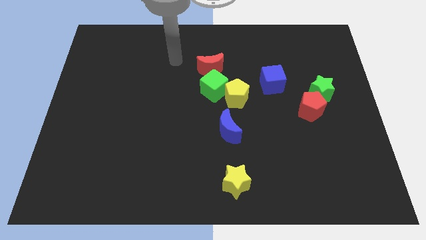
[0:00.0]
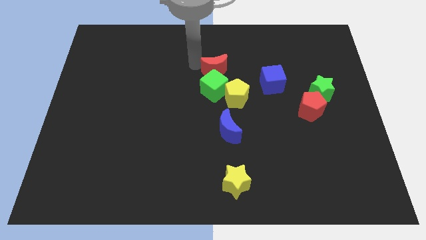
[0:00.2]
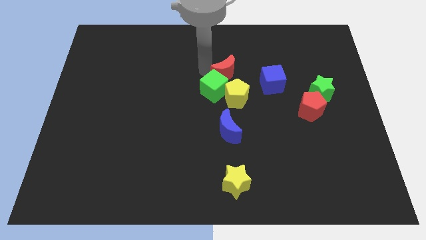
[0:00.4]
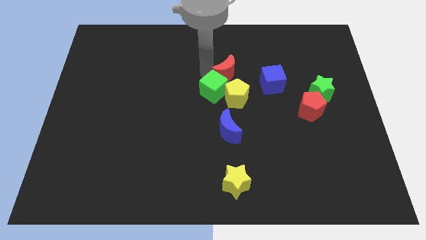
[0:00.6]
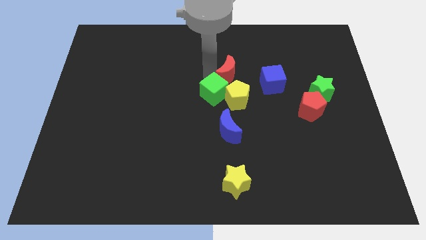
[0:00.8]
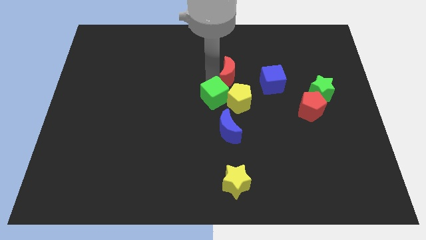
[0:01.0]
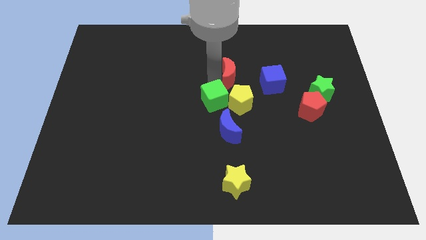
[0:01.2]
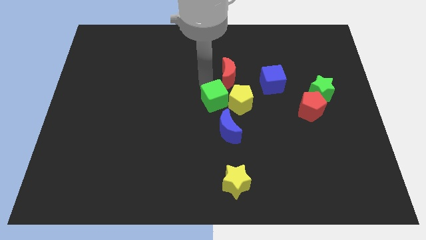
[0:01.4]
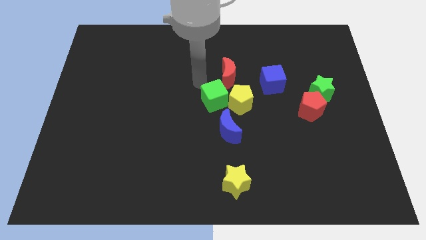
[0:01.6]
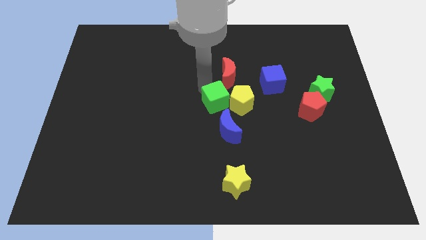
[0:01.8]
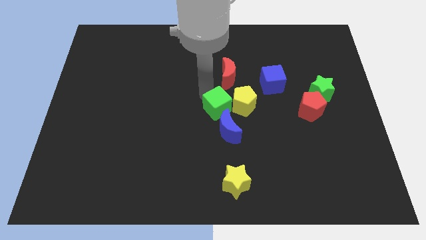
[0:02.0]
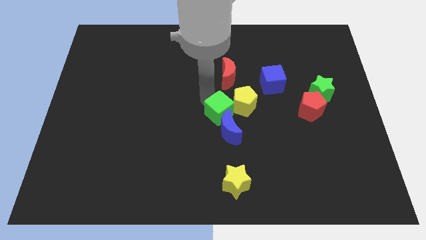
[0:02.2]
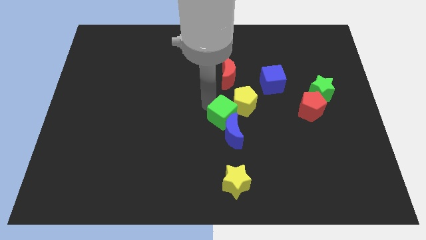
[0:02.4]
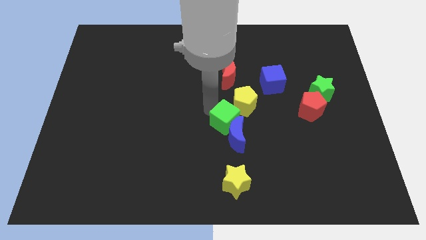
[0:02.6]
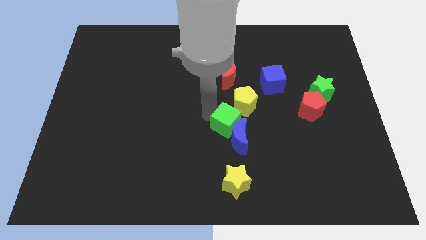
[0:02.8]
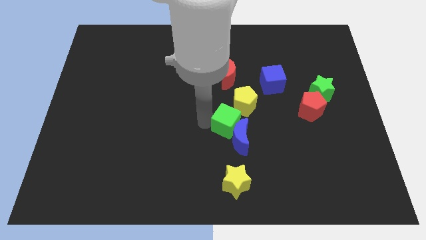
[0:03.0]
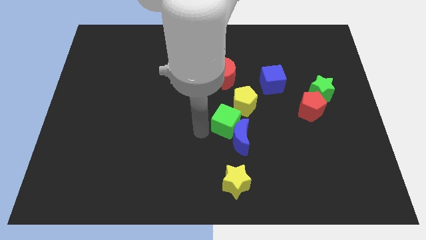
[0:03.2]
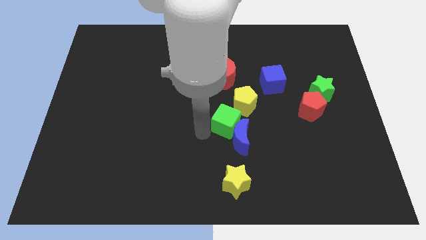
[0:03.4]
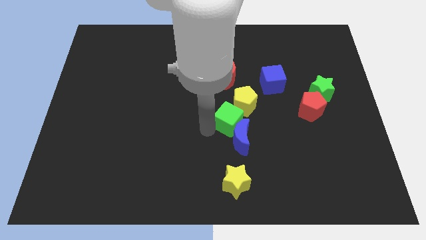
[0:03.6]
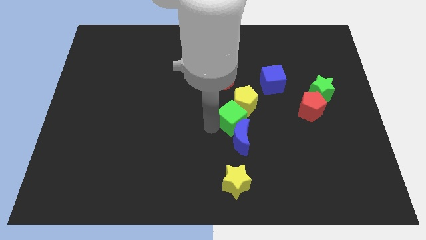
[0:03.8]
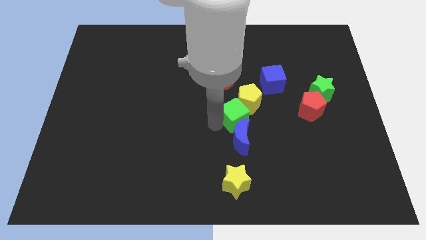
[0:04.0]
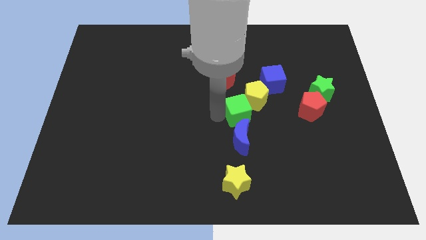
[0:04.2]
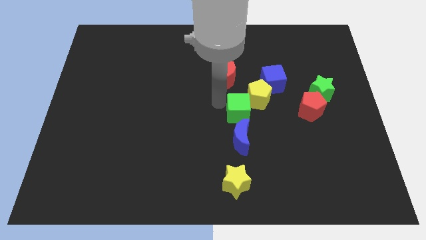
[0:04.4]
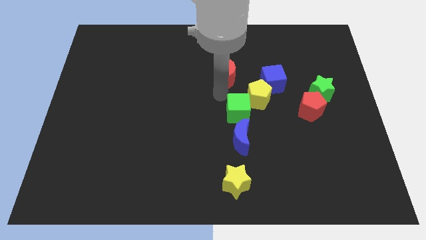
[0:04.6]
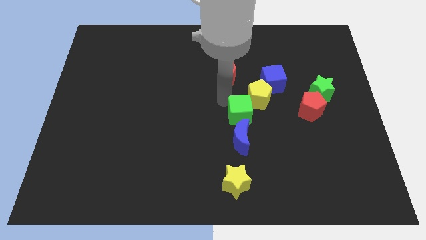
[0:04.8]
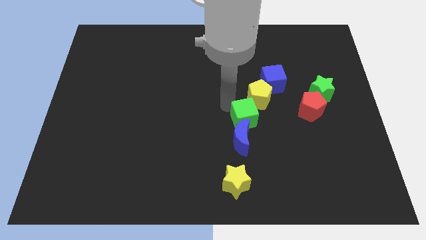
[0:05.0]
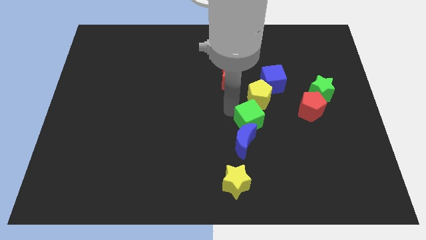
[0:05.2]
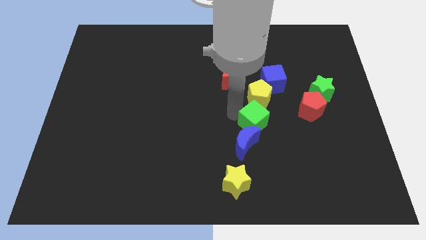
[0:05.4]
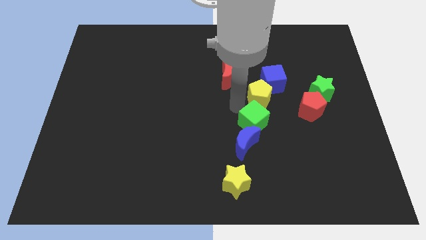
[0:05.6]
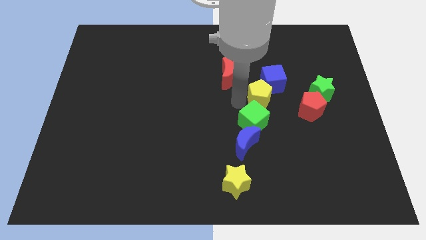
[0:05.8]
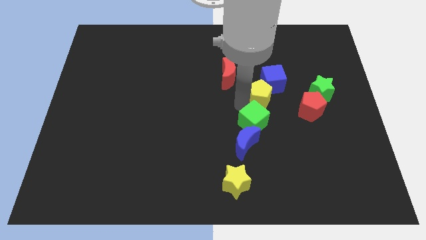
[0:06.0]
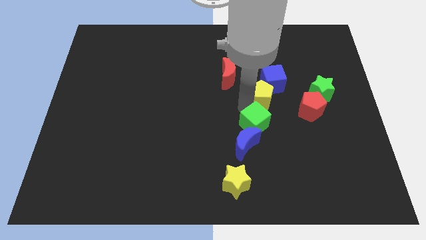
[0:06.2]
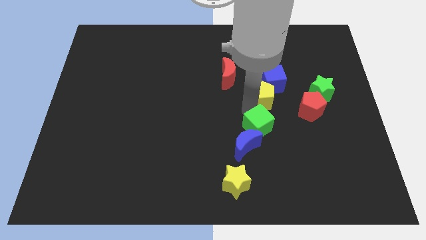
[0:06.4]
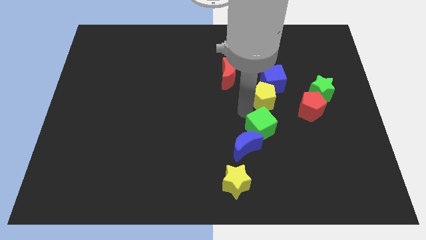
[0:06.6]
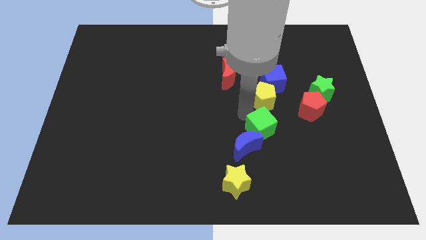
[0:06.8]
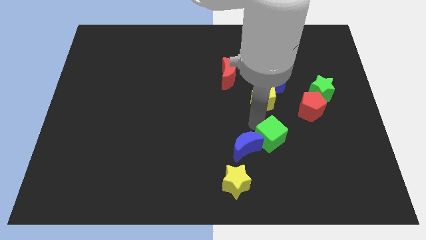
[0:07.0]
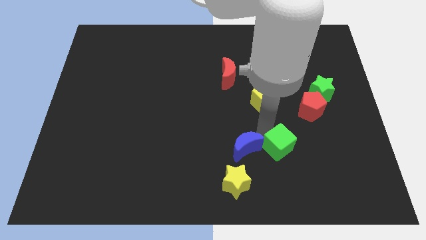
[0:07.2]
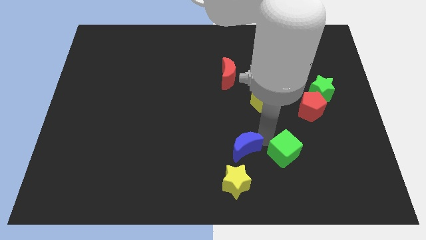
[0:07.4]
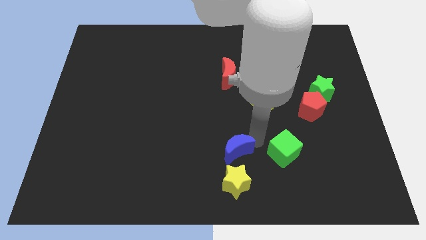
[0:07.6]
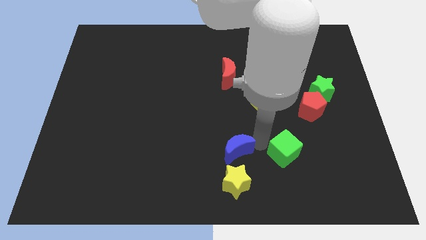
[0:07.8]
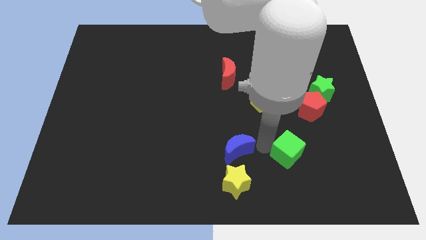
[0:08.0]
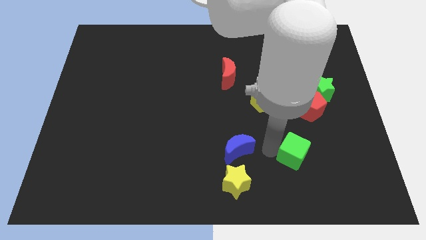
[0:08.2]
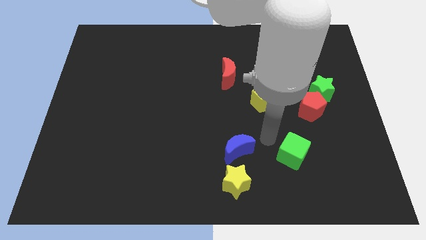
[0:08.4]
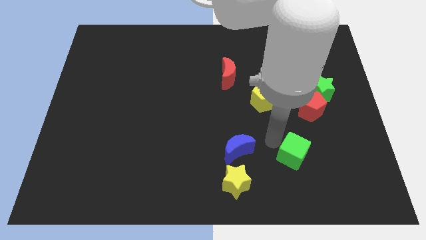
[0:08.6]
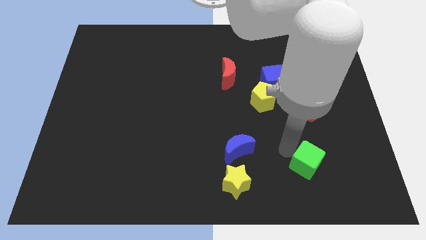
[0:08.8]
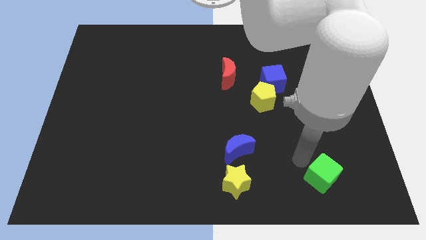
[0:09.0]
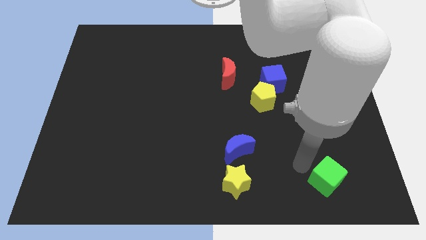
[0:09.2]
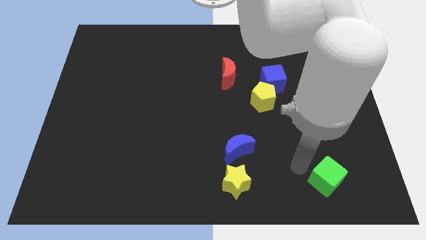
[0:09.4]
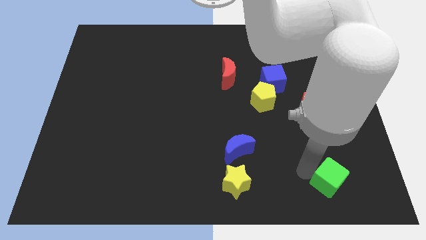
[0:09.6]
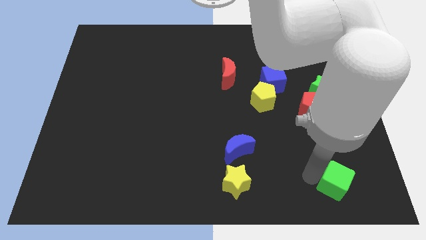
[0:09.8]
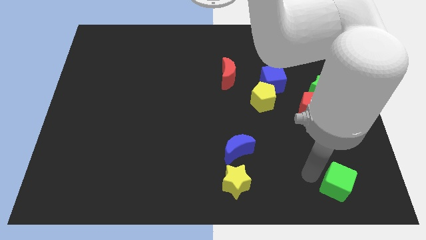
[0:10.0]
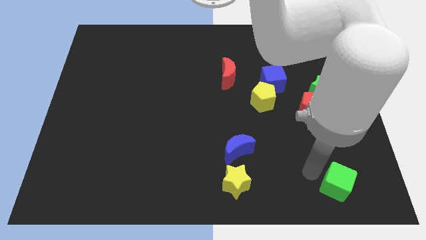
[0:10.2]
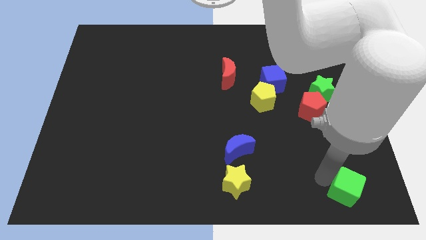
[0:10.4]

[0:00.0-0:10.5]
move the green cube to the bottom right

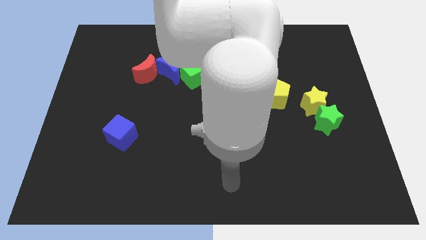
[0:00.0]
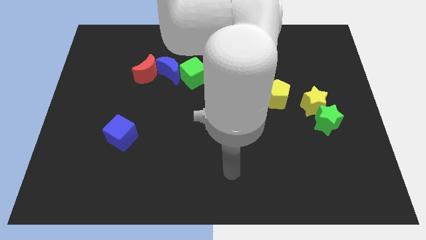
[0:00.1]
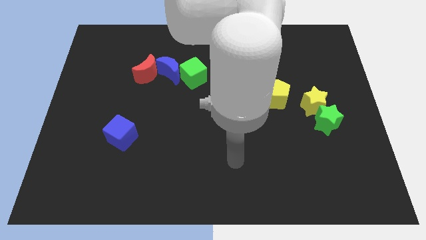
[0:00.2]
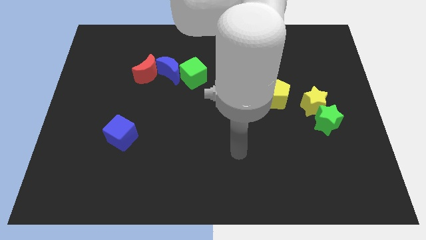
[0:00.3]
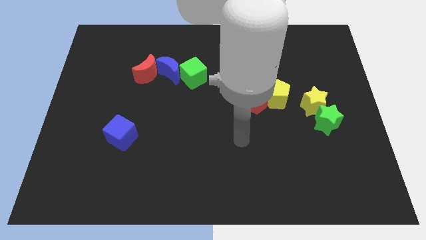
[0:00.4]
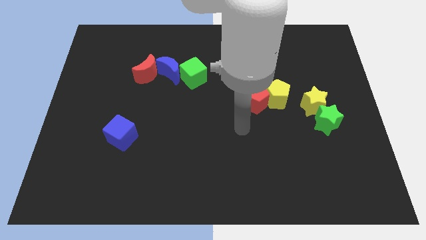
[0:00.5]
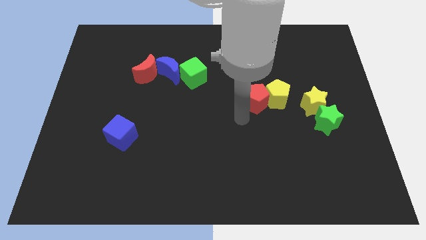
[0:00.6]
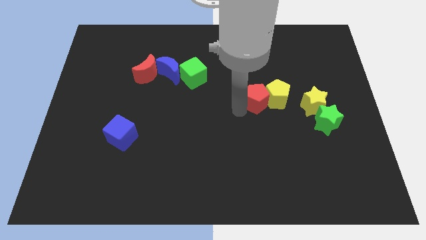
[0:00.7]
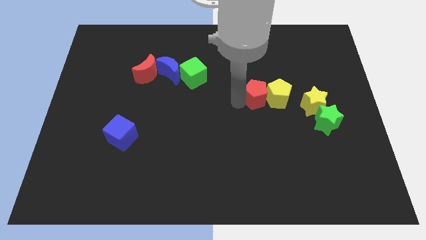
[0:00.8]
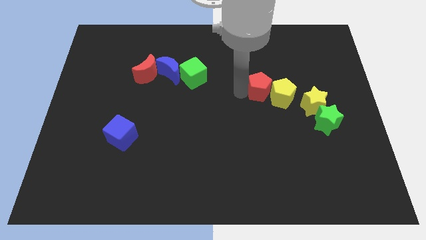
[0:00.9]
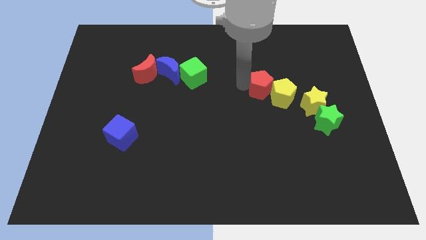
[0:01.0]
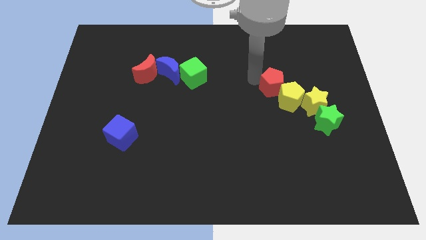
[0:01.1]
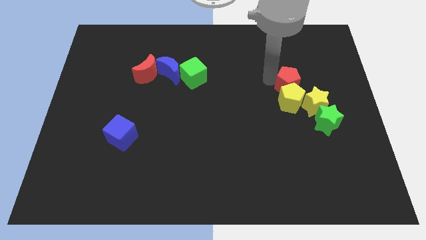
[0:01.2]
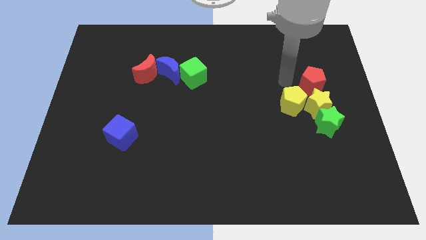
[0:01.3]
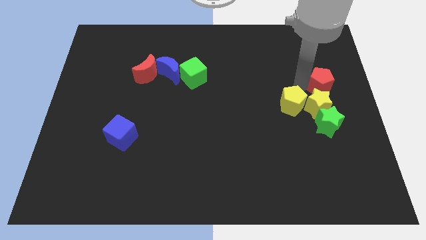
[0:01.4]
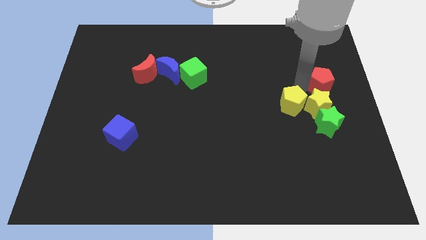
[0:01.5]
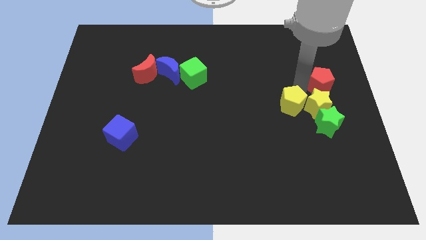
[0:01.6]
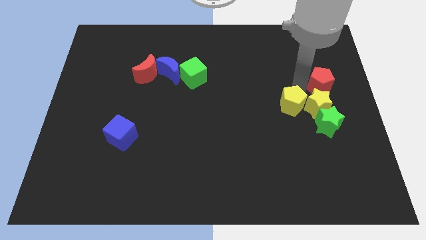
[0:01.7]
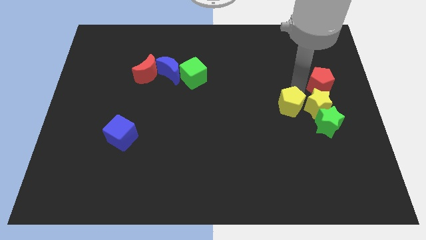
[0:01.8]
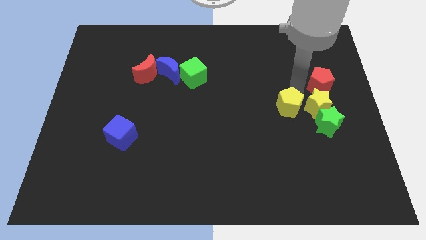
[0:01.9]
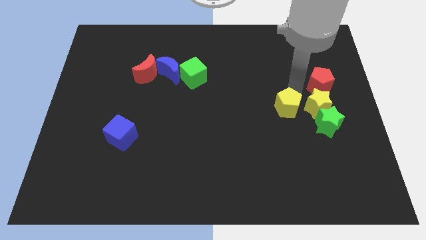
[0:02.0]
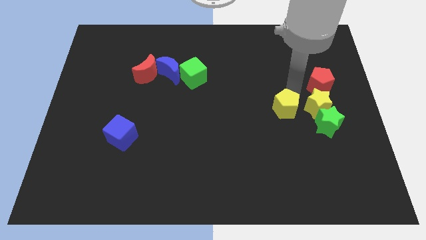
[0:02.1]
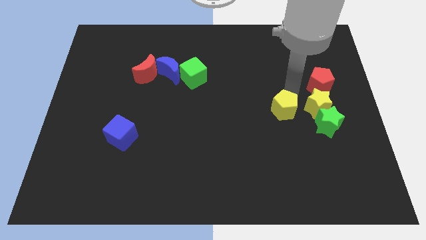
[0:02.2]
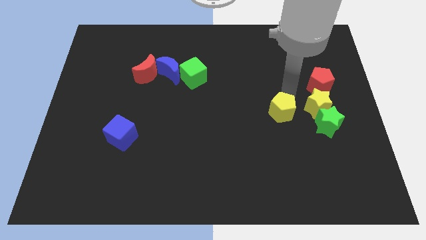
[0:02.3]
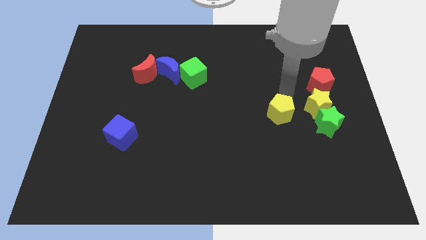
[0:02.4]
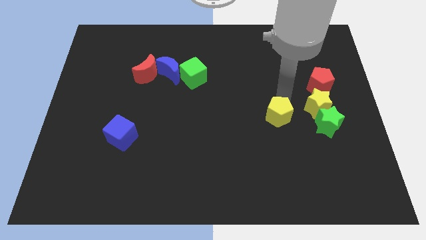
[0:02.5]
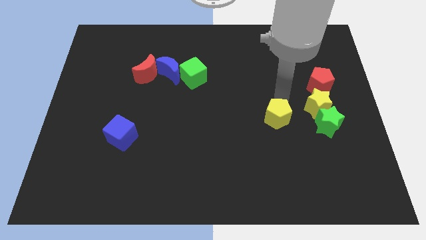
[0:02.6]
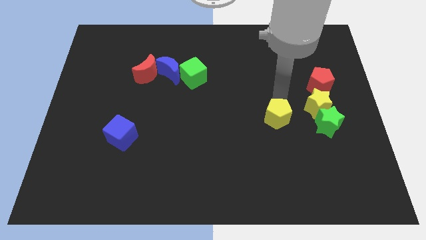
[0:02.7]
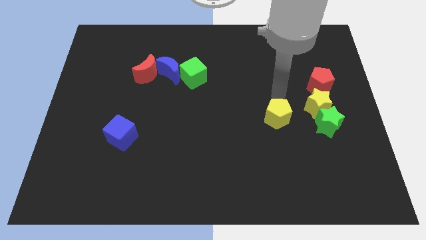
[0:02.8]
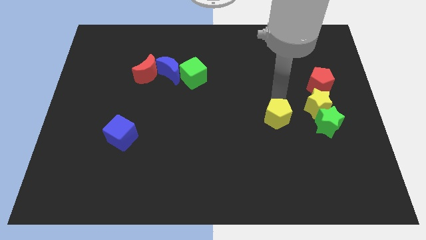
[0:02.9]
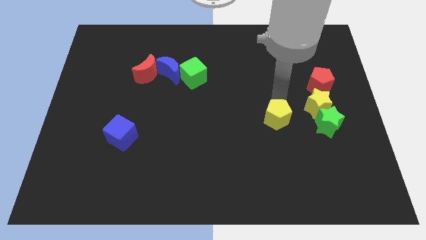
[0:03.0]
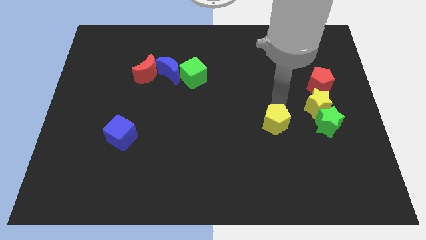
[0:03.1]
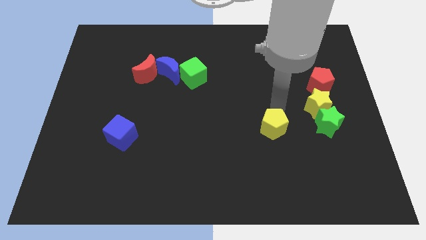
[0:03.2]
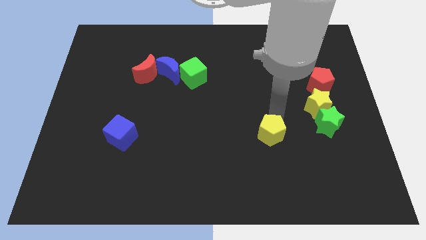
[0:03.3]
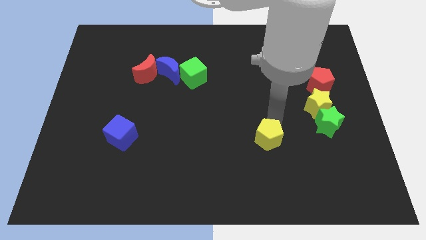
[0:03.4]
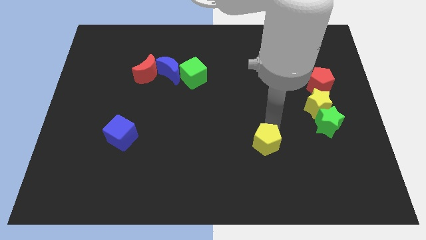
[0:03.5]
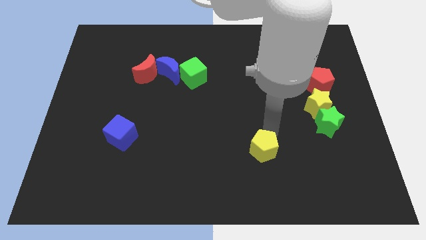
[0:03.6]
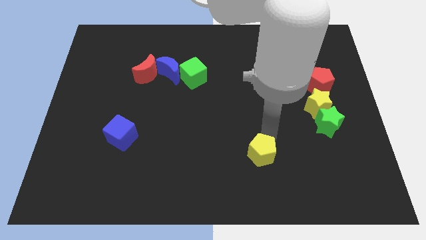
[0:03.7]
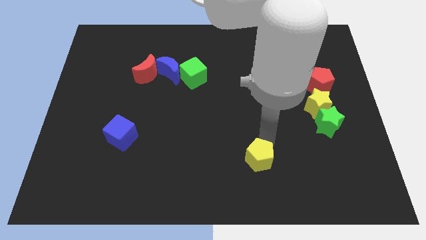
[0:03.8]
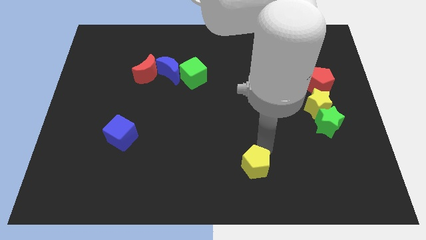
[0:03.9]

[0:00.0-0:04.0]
slide the yellow pentagon to the bottom side
